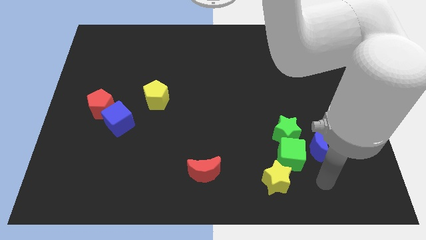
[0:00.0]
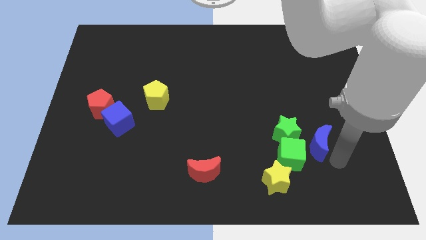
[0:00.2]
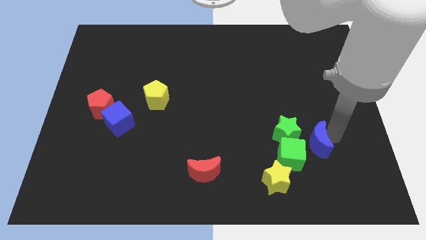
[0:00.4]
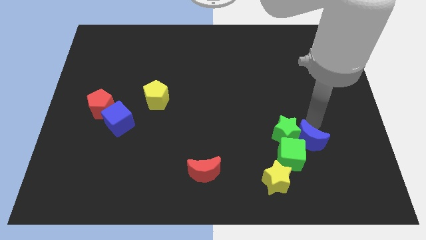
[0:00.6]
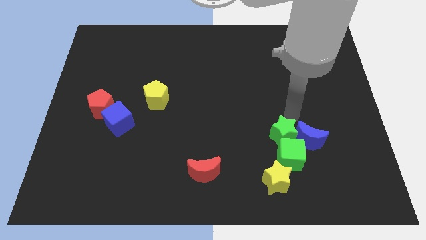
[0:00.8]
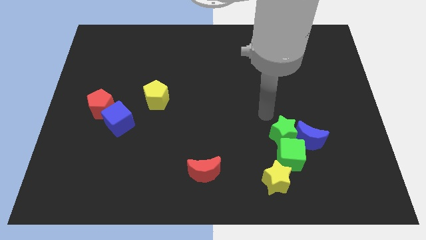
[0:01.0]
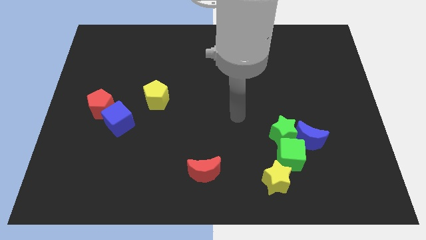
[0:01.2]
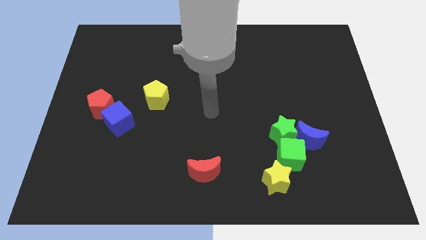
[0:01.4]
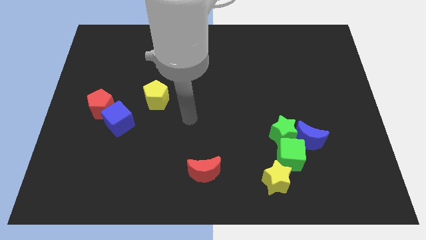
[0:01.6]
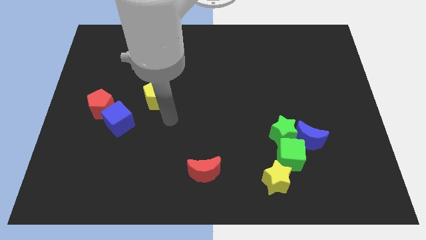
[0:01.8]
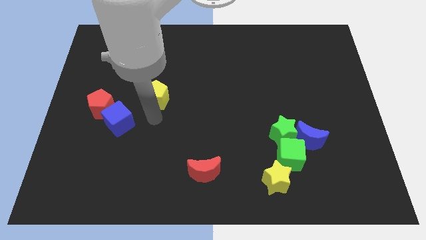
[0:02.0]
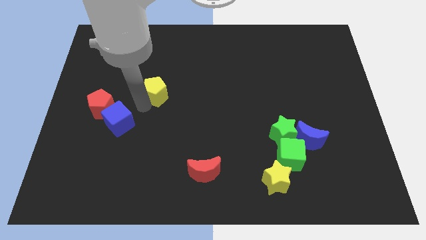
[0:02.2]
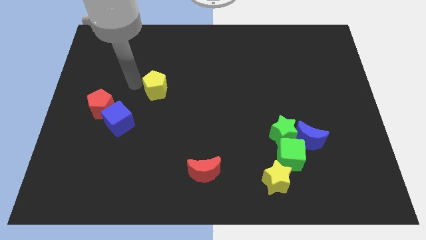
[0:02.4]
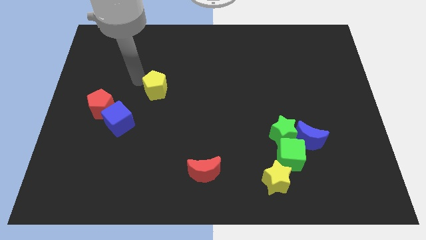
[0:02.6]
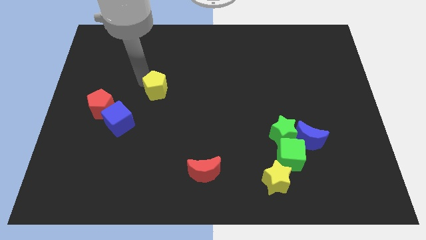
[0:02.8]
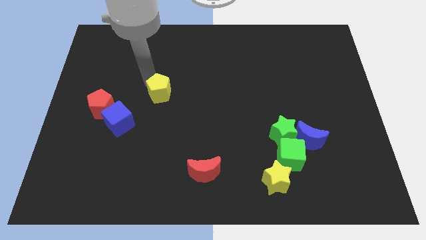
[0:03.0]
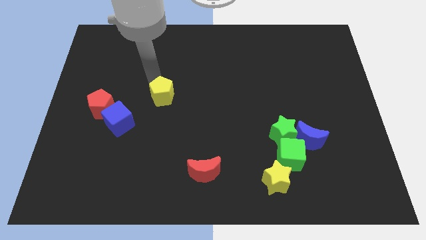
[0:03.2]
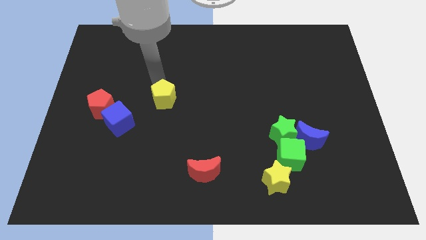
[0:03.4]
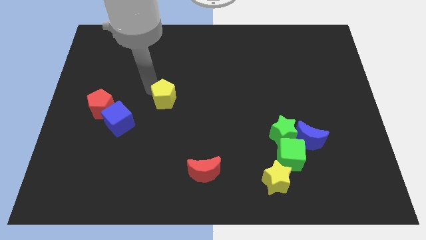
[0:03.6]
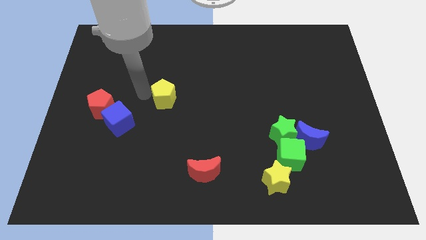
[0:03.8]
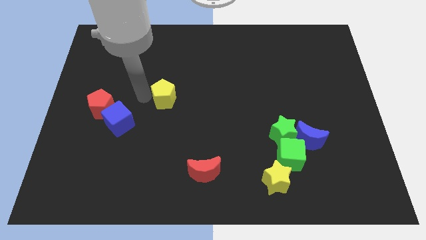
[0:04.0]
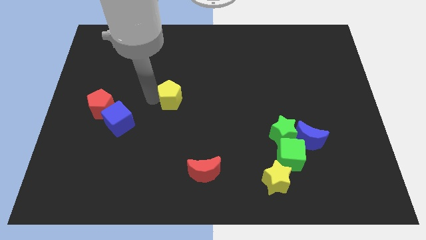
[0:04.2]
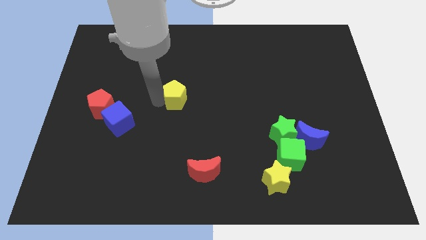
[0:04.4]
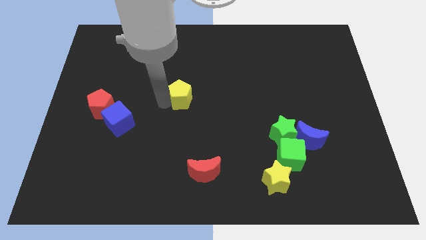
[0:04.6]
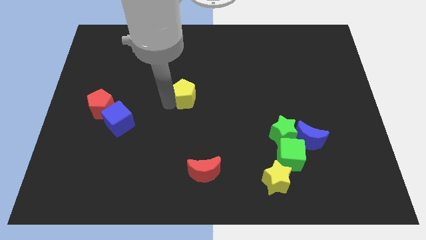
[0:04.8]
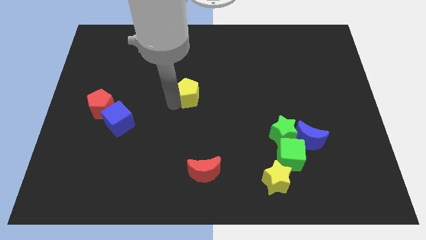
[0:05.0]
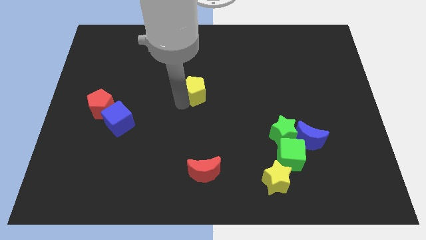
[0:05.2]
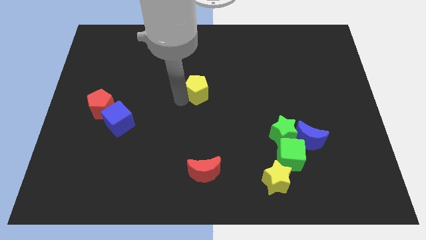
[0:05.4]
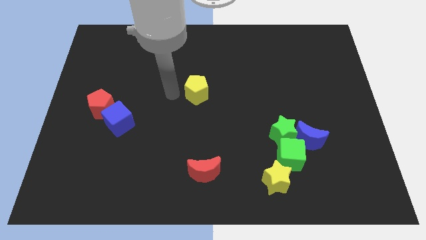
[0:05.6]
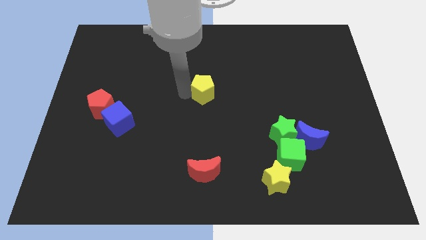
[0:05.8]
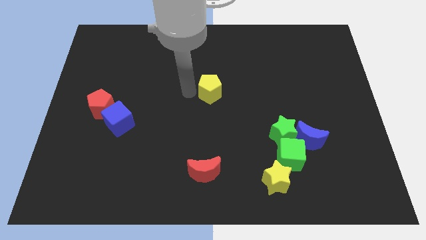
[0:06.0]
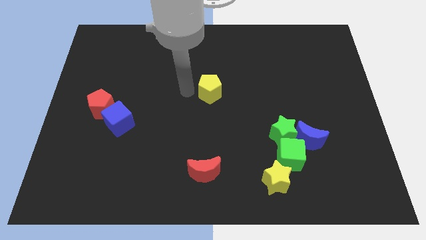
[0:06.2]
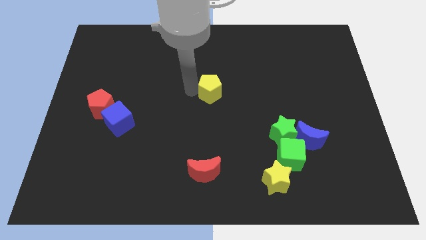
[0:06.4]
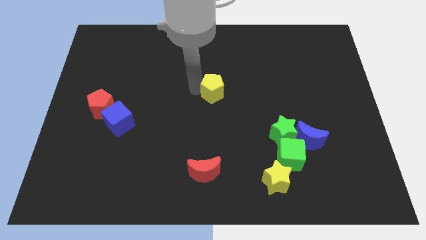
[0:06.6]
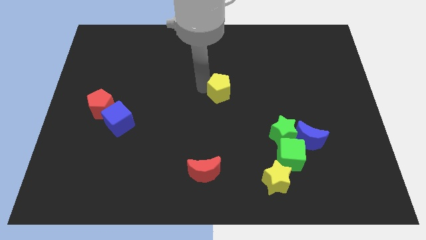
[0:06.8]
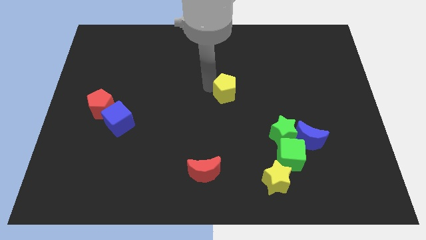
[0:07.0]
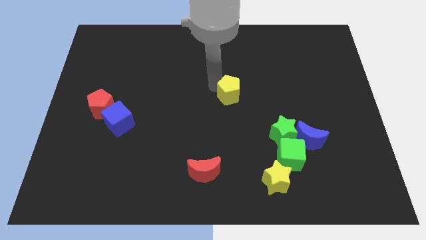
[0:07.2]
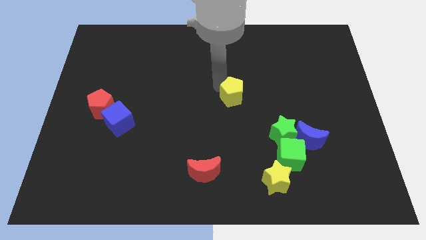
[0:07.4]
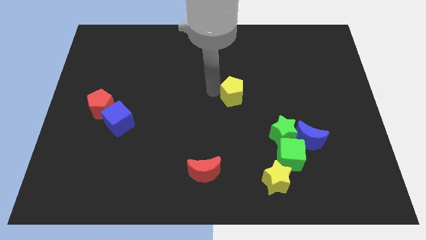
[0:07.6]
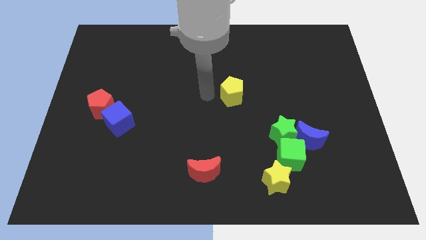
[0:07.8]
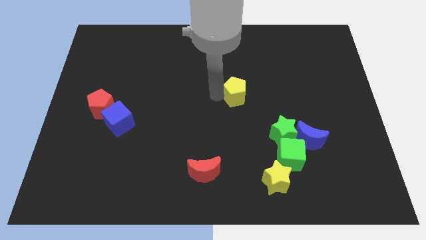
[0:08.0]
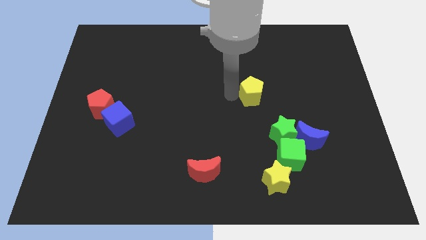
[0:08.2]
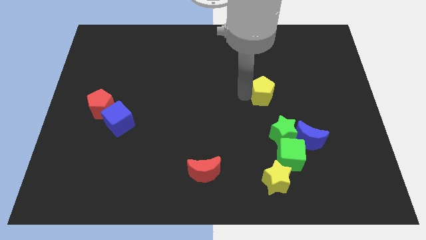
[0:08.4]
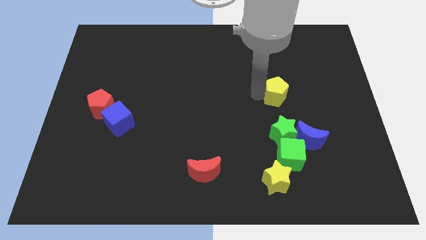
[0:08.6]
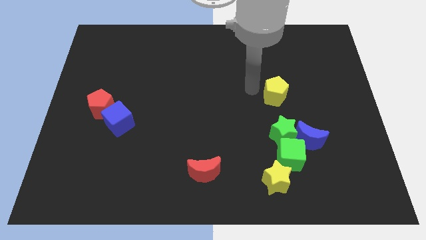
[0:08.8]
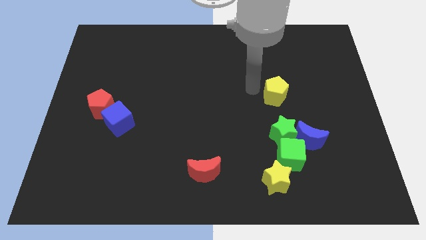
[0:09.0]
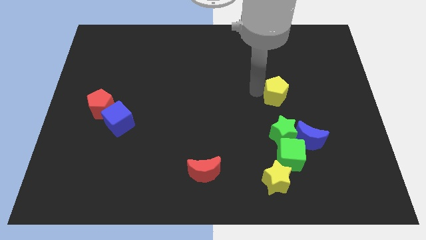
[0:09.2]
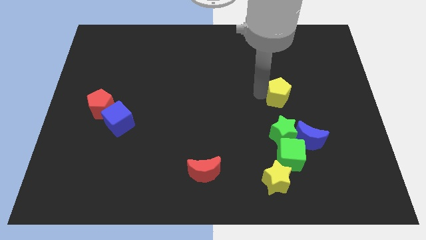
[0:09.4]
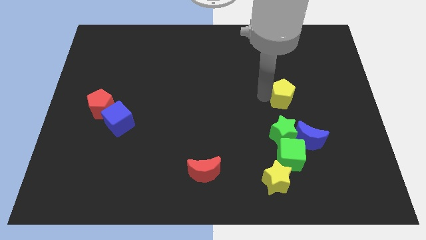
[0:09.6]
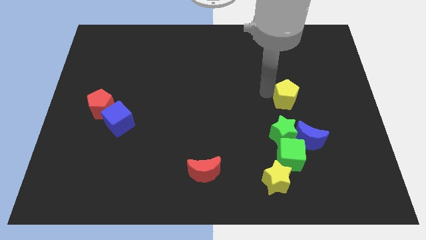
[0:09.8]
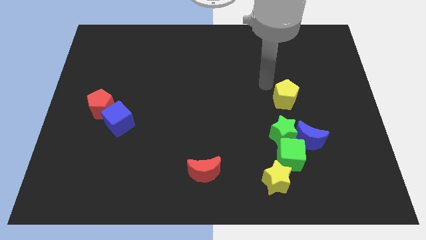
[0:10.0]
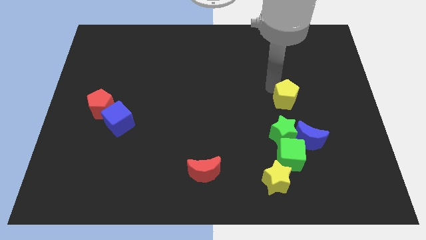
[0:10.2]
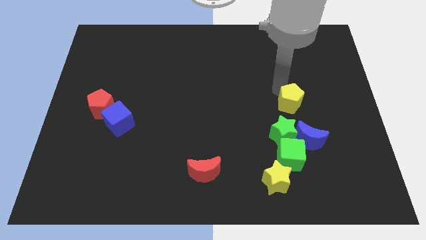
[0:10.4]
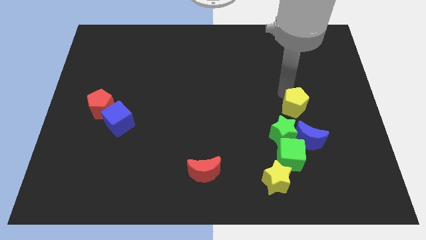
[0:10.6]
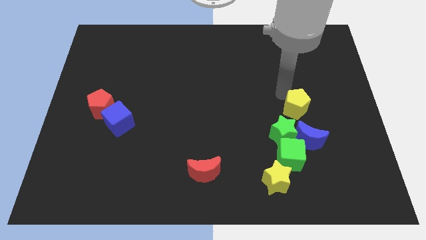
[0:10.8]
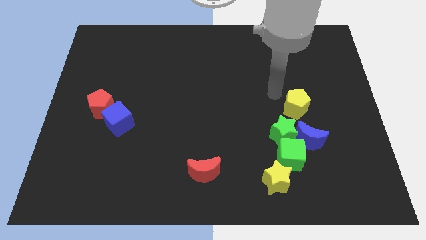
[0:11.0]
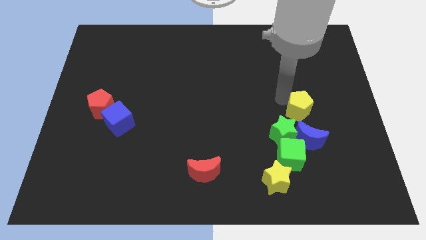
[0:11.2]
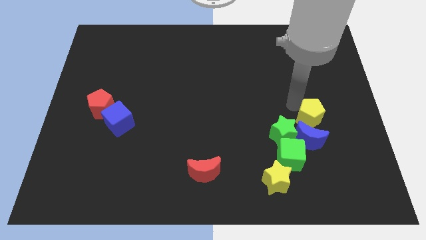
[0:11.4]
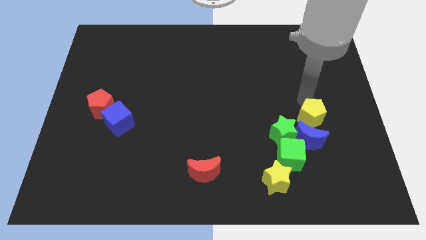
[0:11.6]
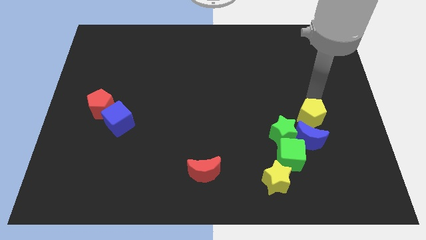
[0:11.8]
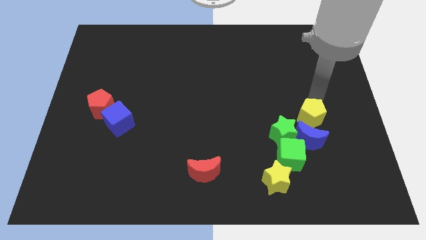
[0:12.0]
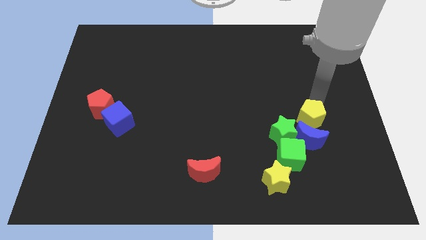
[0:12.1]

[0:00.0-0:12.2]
push the yellow pentagon close to the blue moon

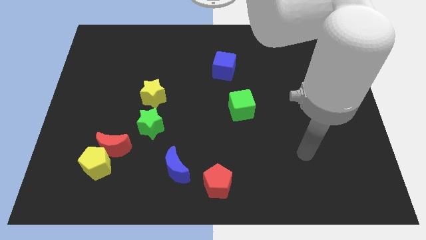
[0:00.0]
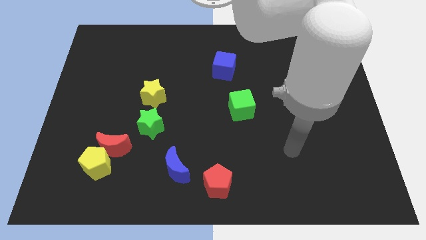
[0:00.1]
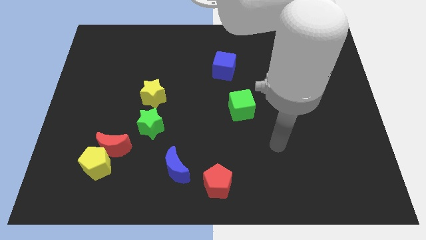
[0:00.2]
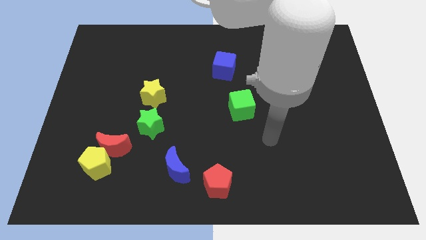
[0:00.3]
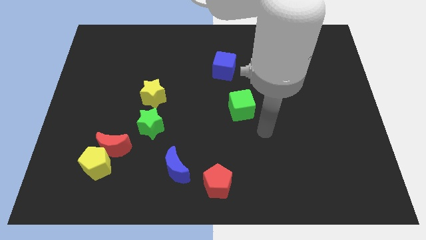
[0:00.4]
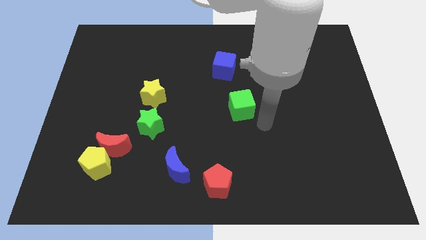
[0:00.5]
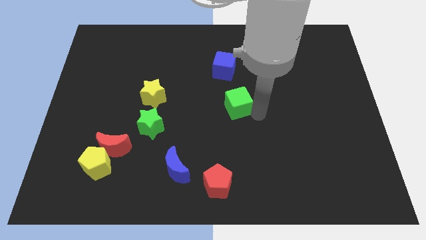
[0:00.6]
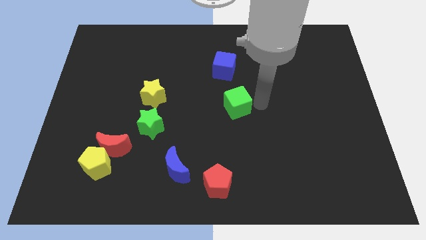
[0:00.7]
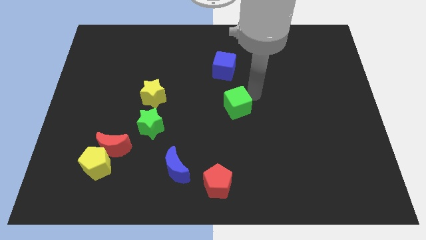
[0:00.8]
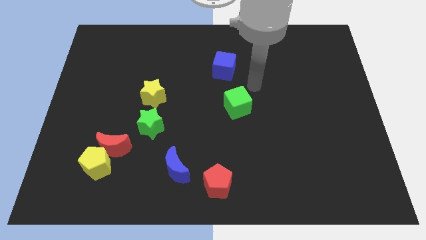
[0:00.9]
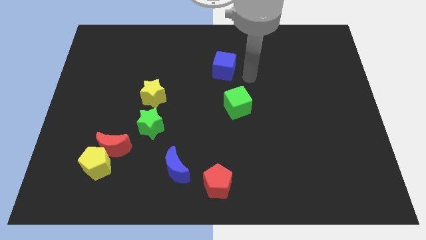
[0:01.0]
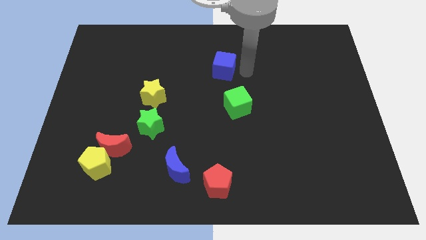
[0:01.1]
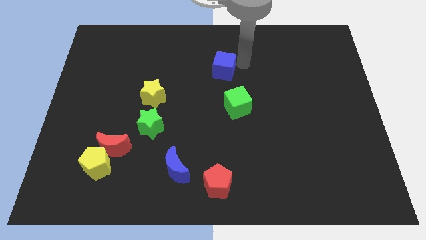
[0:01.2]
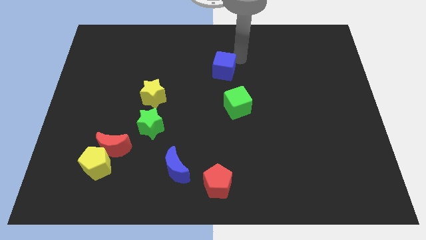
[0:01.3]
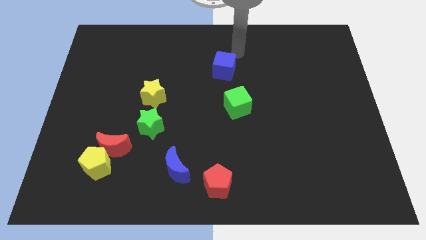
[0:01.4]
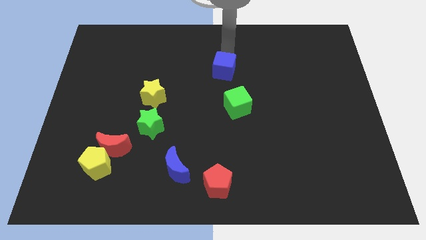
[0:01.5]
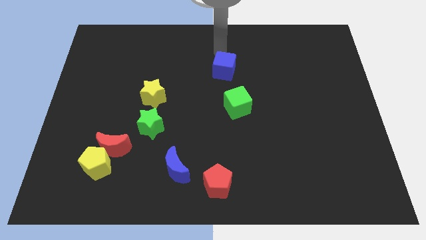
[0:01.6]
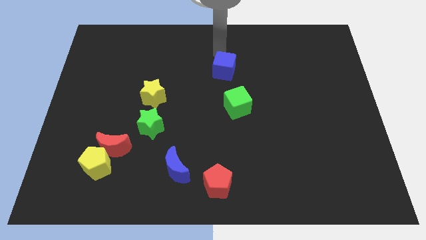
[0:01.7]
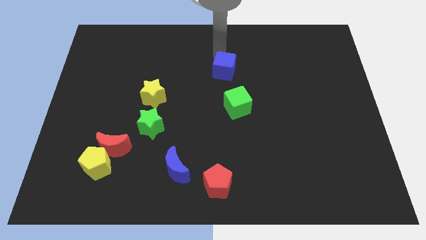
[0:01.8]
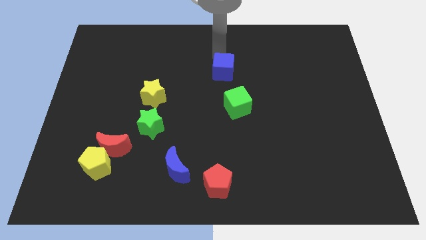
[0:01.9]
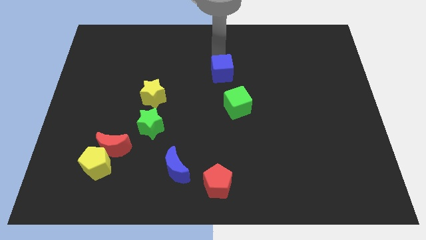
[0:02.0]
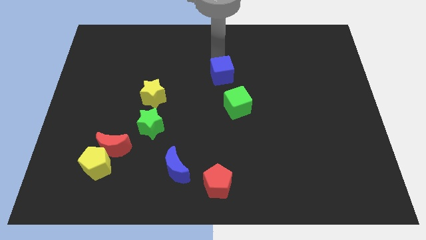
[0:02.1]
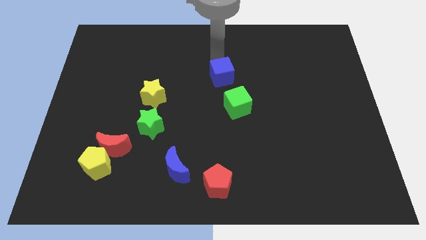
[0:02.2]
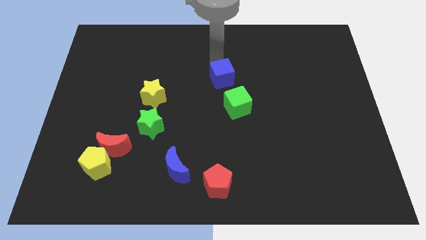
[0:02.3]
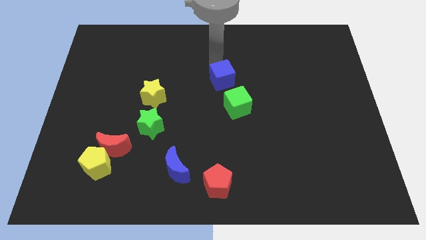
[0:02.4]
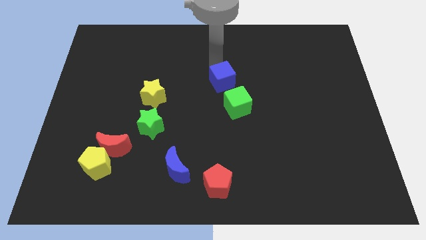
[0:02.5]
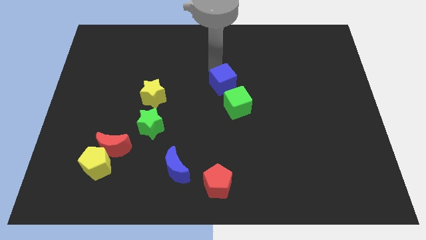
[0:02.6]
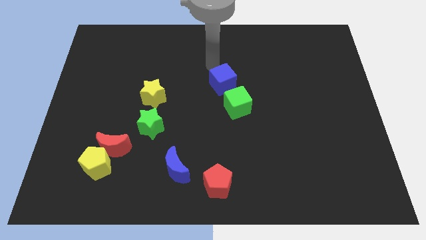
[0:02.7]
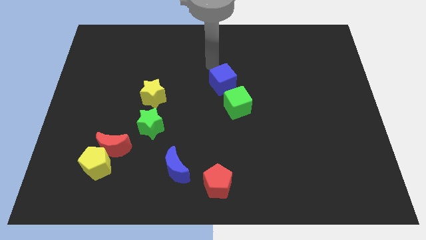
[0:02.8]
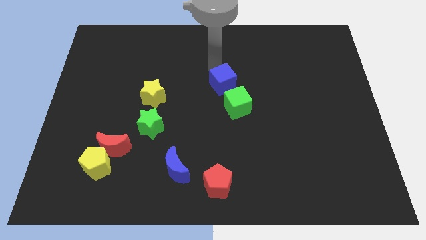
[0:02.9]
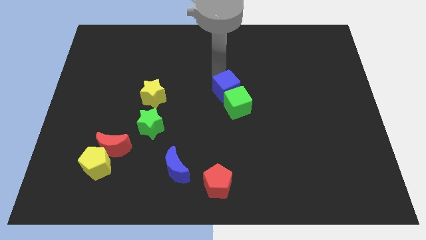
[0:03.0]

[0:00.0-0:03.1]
slide the blue cube to the green cube
